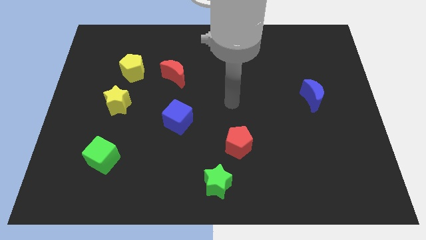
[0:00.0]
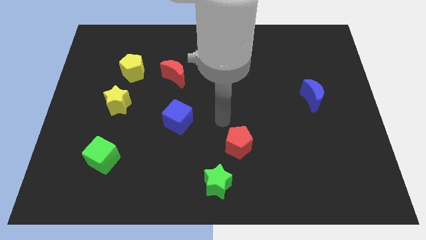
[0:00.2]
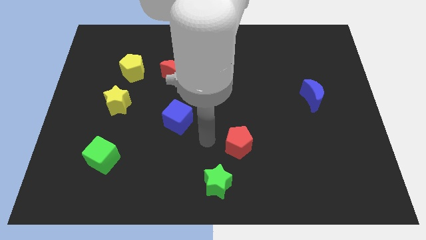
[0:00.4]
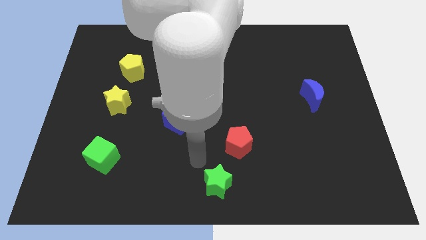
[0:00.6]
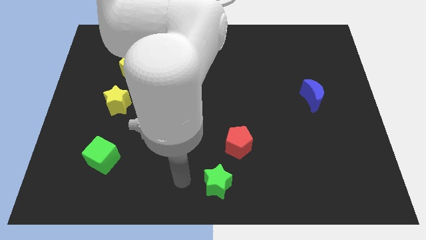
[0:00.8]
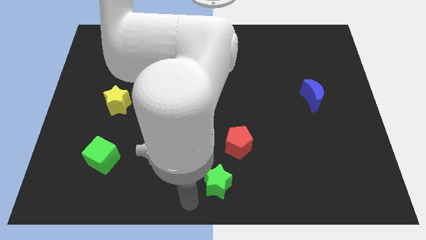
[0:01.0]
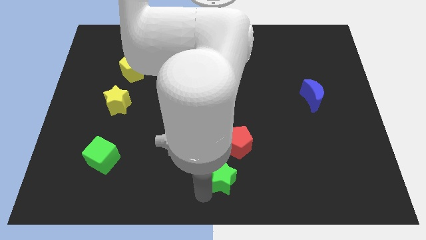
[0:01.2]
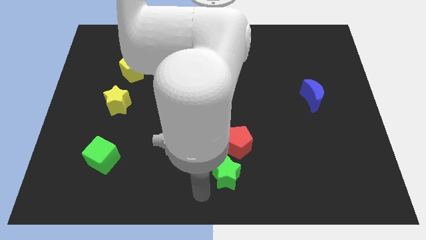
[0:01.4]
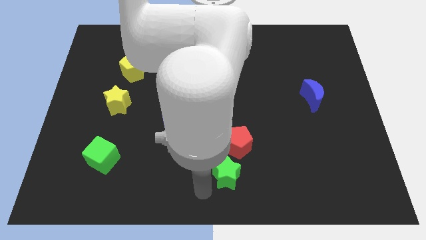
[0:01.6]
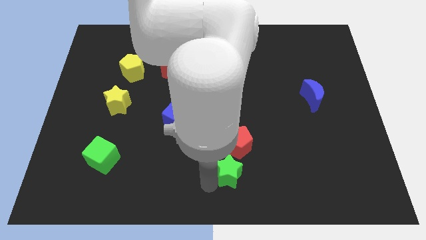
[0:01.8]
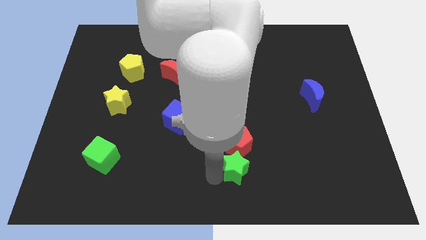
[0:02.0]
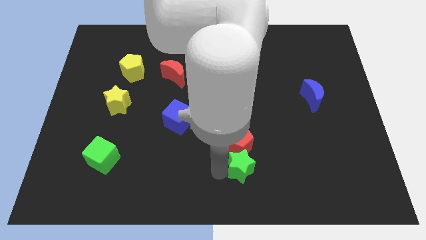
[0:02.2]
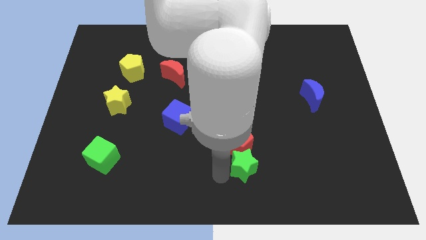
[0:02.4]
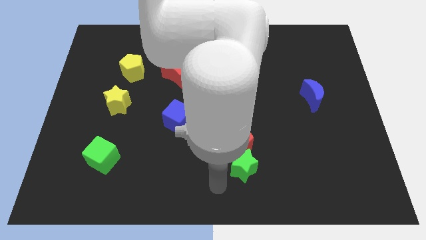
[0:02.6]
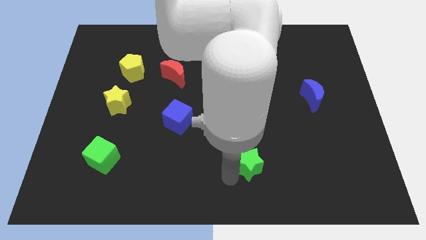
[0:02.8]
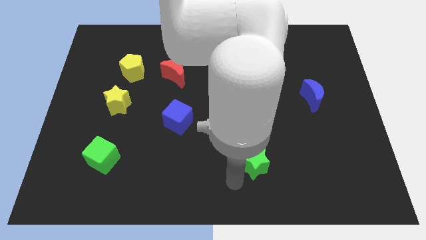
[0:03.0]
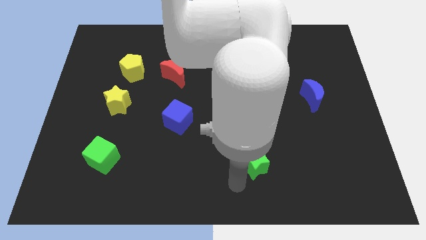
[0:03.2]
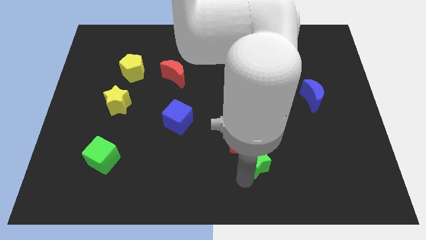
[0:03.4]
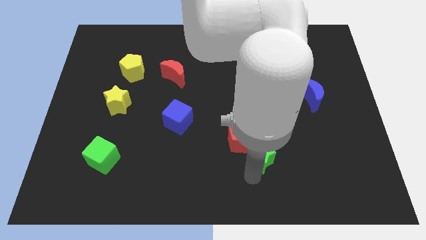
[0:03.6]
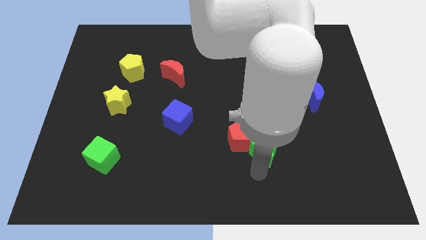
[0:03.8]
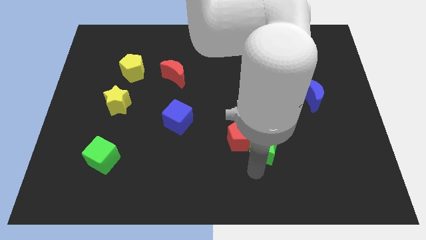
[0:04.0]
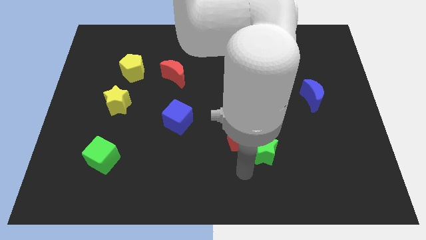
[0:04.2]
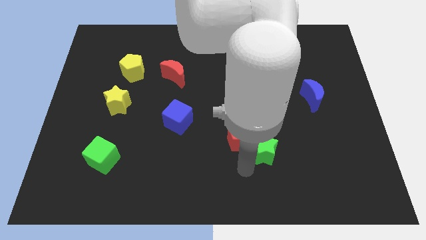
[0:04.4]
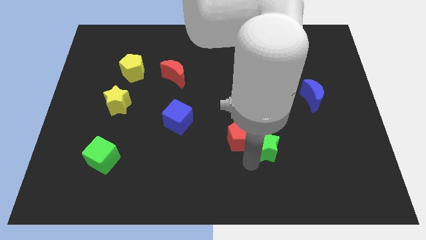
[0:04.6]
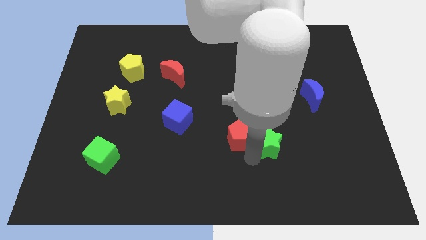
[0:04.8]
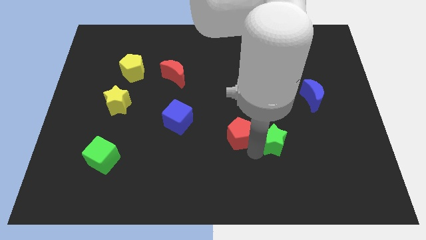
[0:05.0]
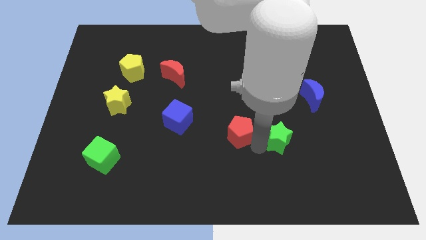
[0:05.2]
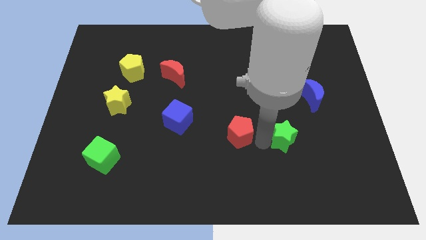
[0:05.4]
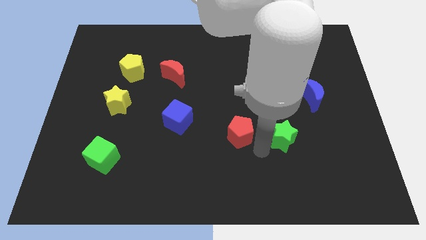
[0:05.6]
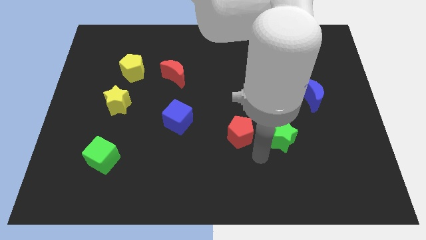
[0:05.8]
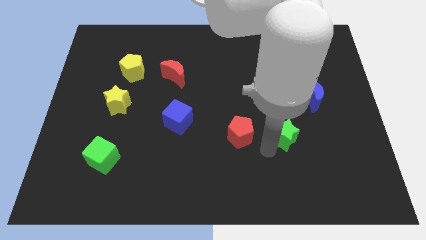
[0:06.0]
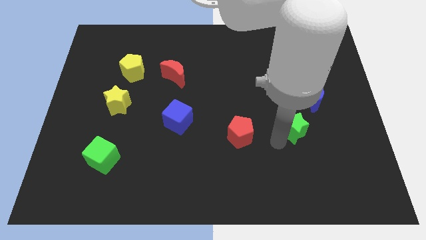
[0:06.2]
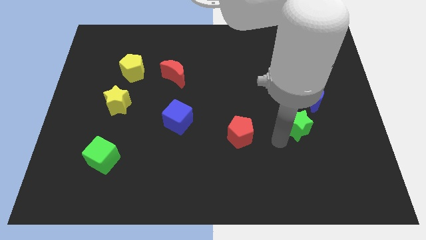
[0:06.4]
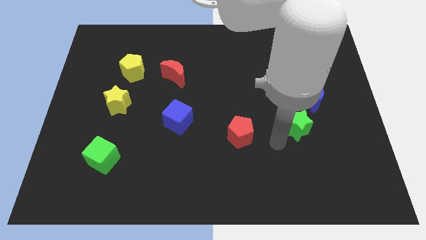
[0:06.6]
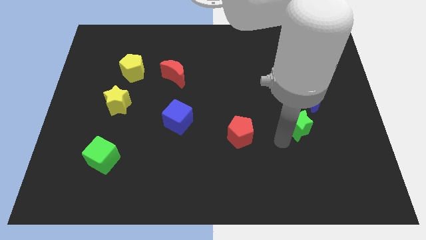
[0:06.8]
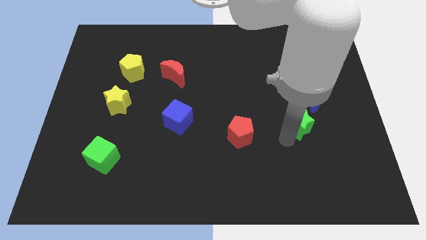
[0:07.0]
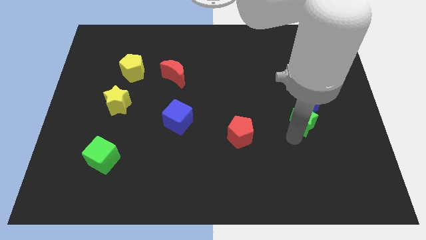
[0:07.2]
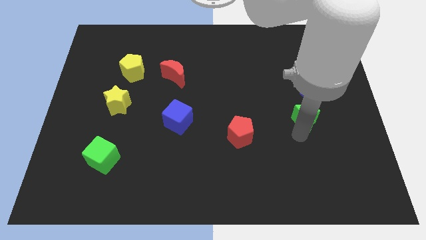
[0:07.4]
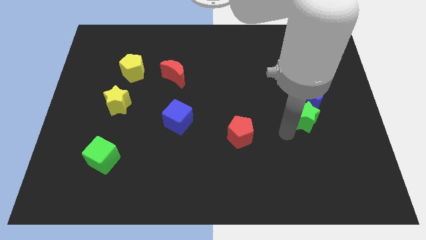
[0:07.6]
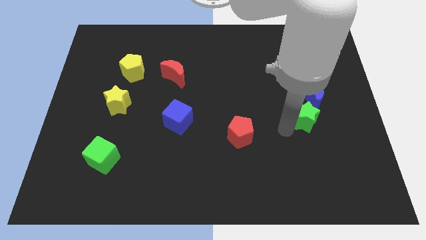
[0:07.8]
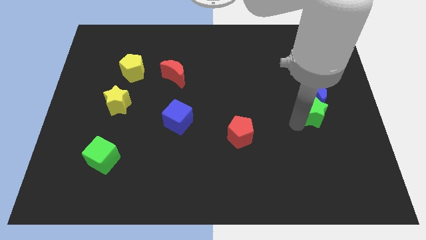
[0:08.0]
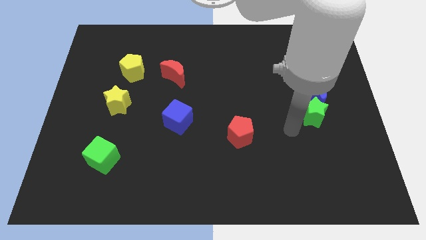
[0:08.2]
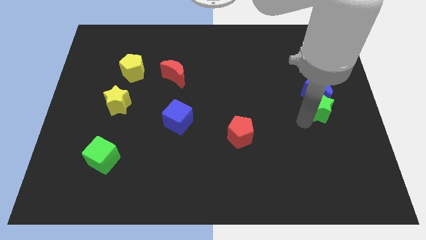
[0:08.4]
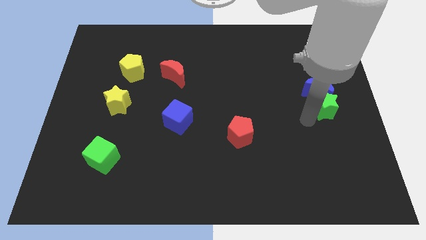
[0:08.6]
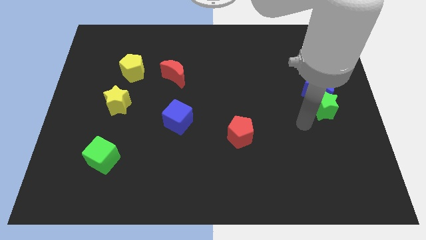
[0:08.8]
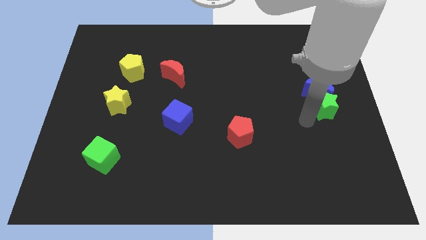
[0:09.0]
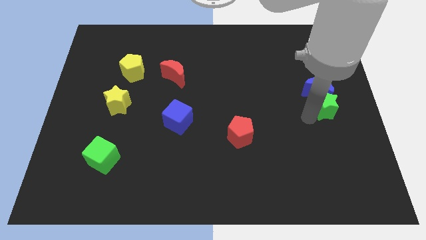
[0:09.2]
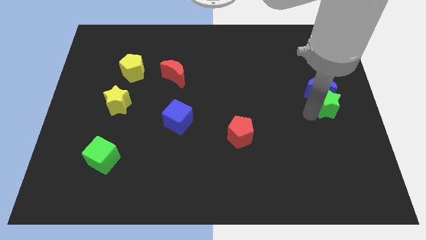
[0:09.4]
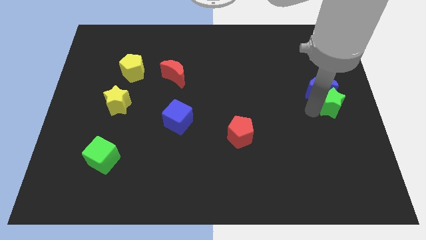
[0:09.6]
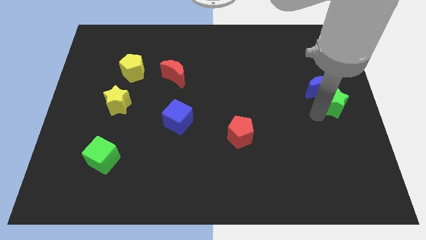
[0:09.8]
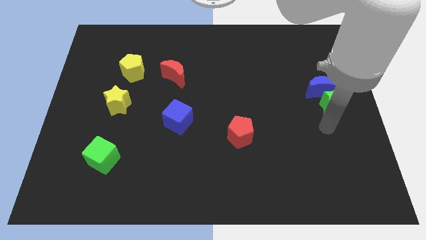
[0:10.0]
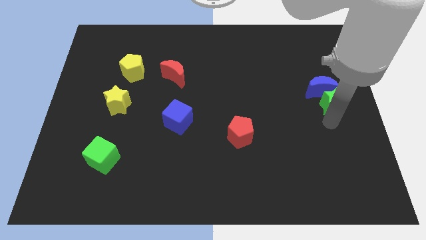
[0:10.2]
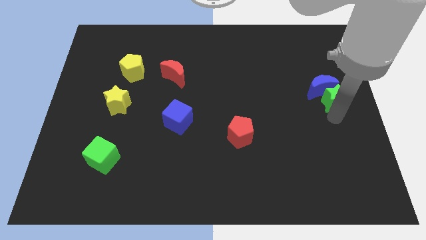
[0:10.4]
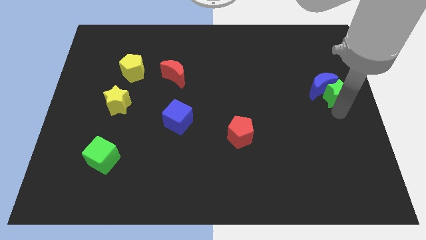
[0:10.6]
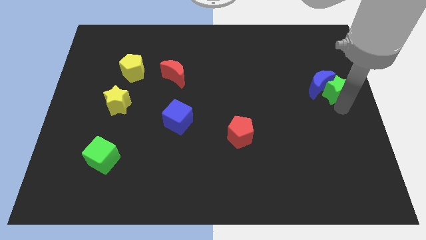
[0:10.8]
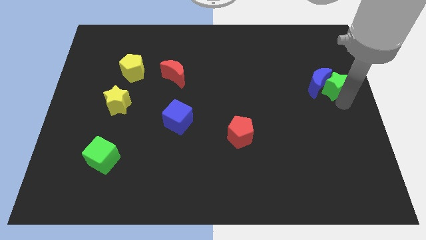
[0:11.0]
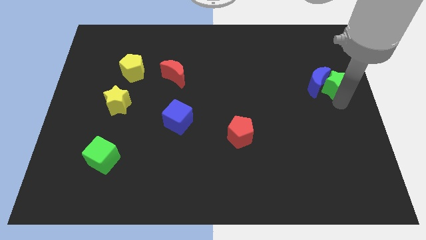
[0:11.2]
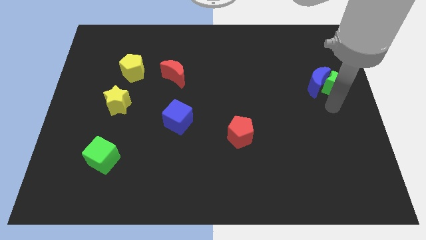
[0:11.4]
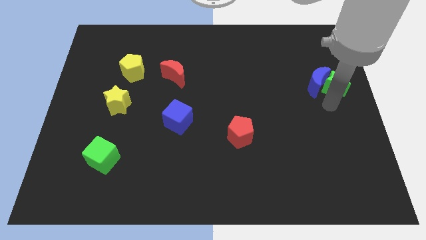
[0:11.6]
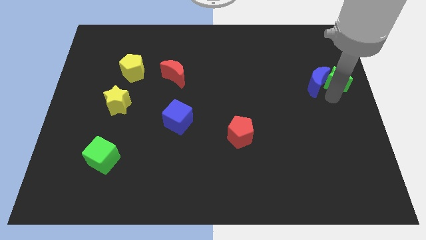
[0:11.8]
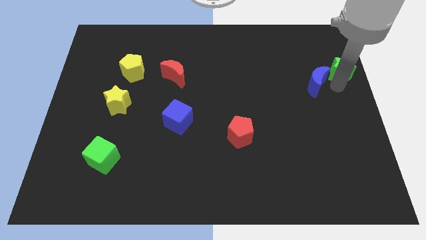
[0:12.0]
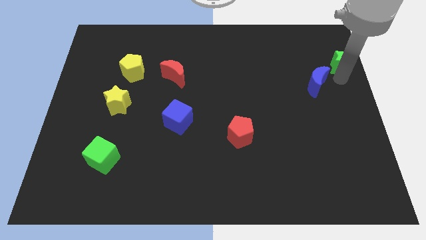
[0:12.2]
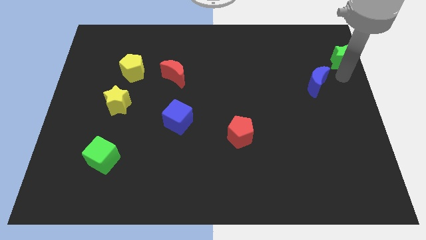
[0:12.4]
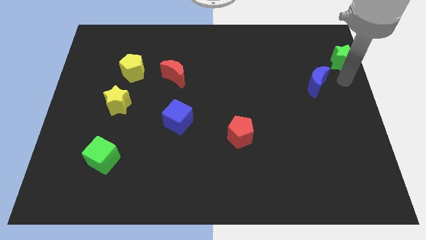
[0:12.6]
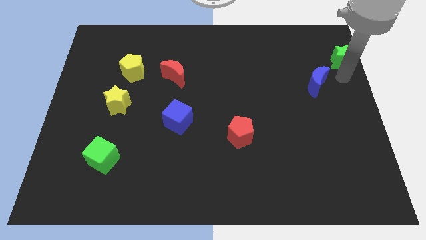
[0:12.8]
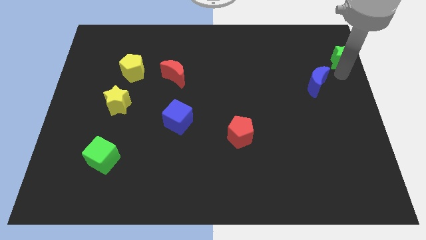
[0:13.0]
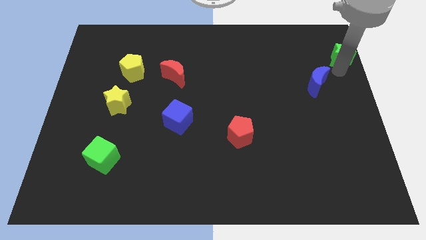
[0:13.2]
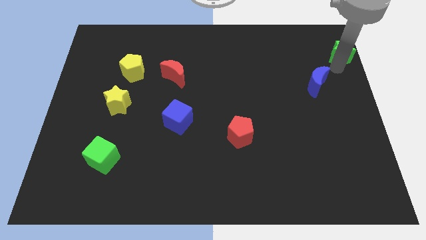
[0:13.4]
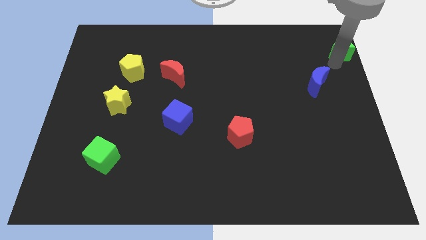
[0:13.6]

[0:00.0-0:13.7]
put the green star to the upper right corner
